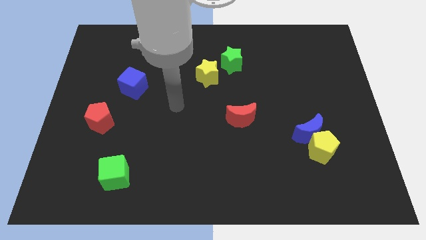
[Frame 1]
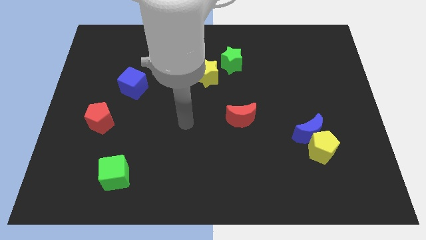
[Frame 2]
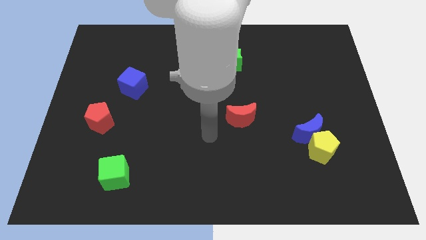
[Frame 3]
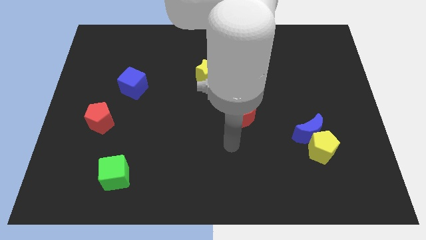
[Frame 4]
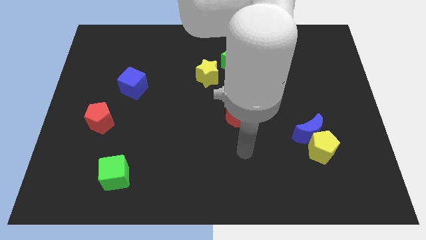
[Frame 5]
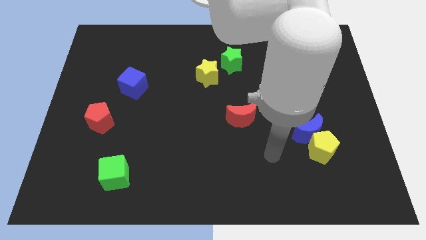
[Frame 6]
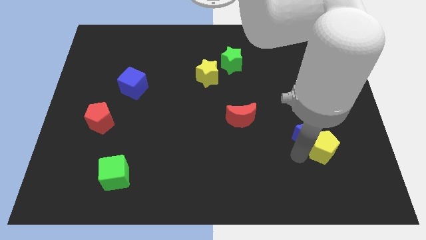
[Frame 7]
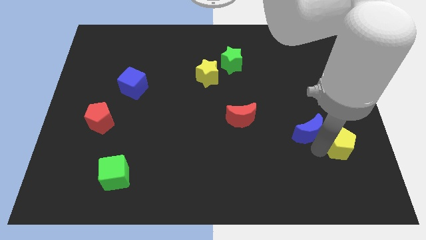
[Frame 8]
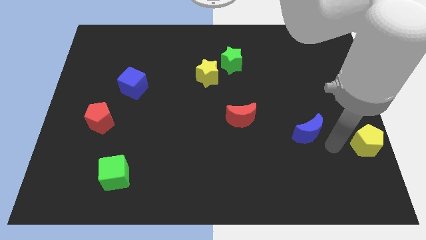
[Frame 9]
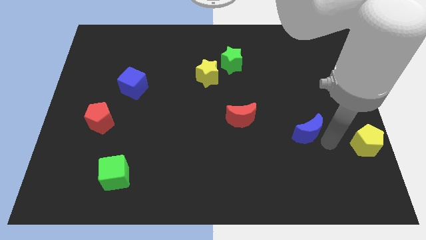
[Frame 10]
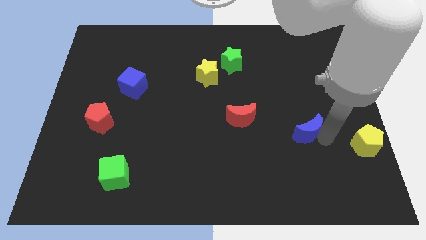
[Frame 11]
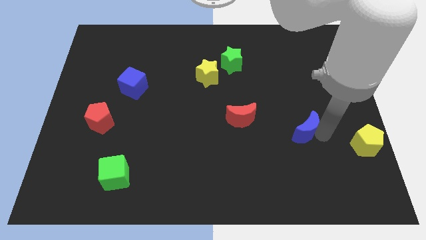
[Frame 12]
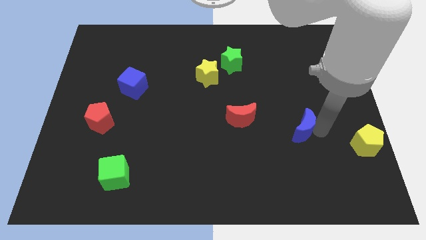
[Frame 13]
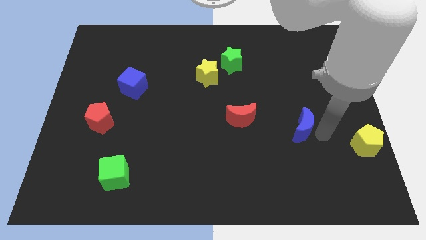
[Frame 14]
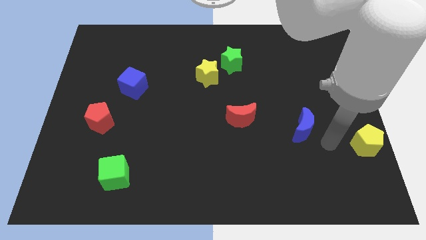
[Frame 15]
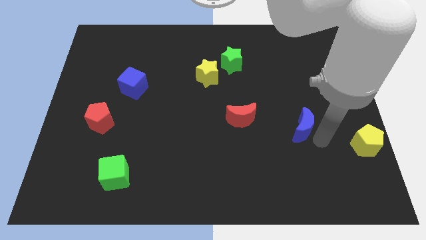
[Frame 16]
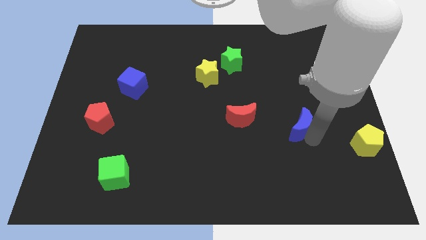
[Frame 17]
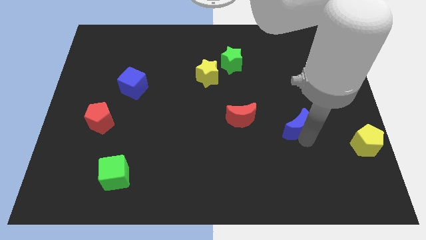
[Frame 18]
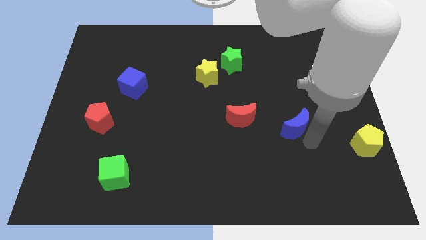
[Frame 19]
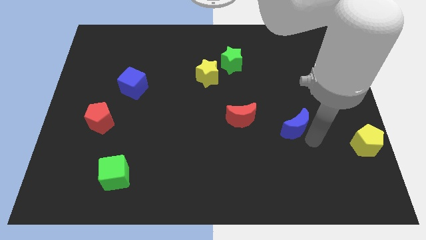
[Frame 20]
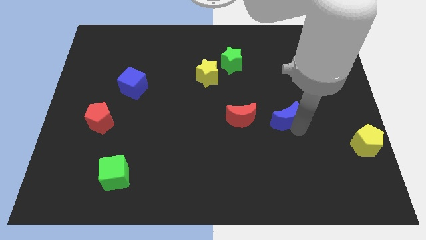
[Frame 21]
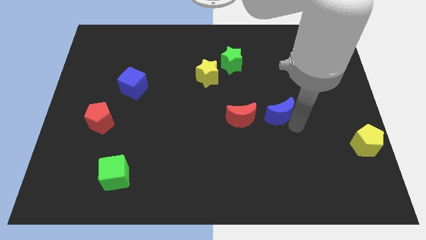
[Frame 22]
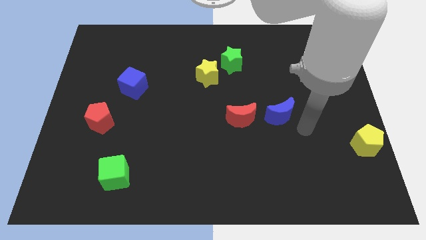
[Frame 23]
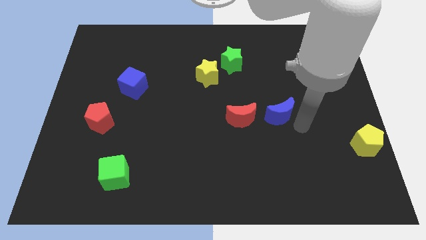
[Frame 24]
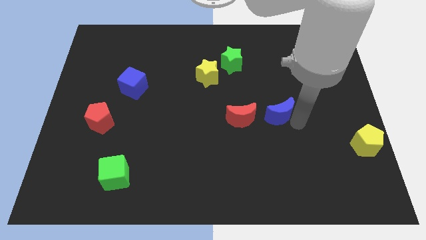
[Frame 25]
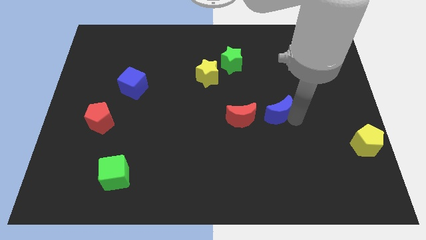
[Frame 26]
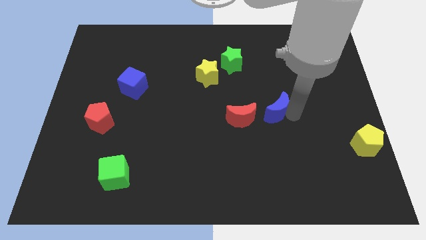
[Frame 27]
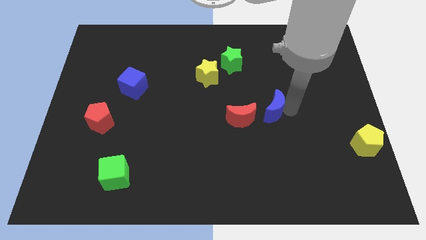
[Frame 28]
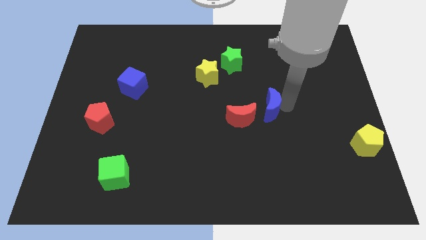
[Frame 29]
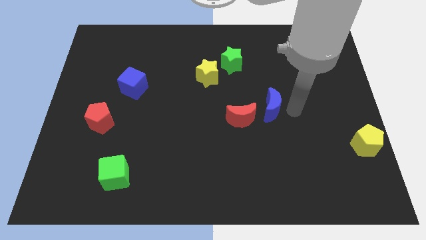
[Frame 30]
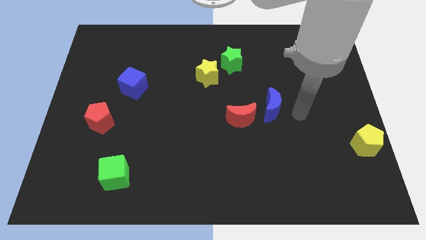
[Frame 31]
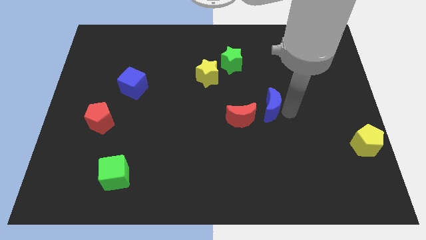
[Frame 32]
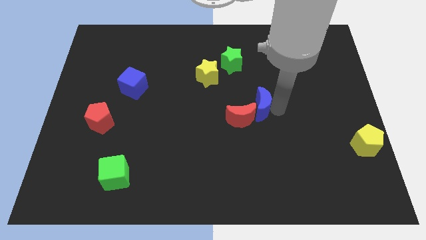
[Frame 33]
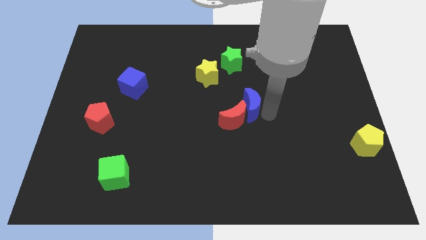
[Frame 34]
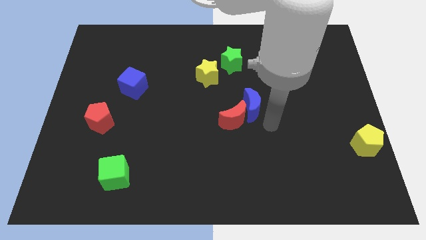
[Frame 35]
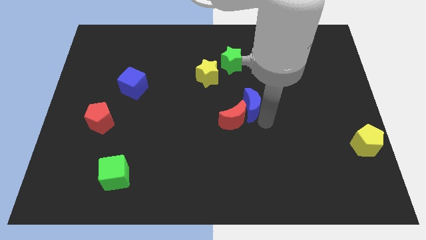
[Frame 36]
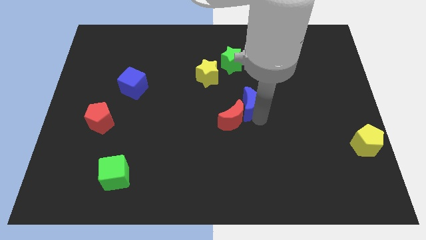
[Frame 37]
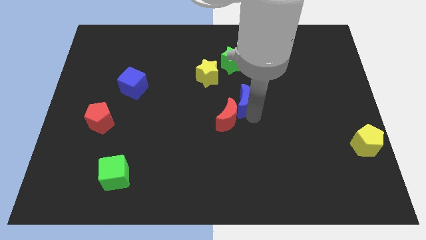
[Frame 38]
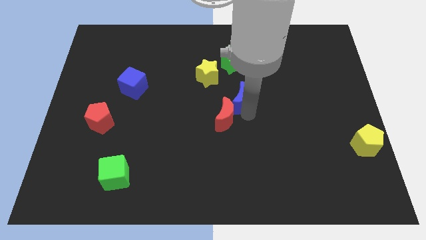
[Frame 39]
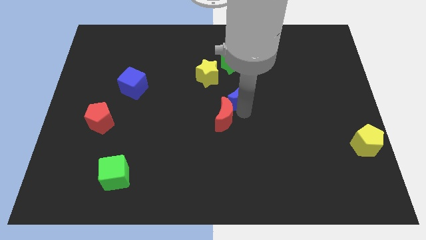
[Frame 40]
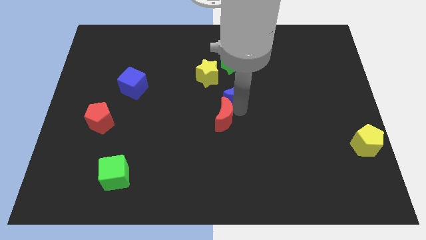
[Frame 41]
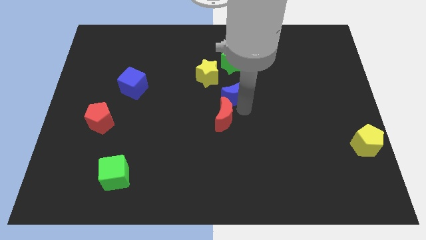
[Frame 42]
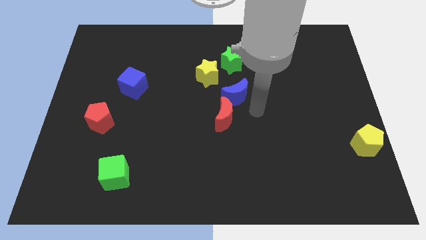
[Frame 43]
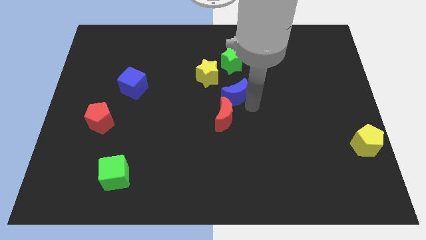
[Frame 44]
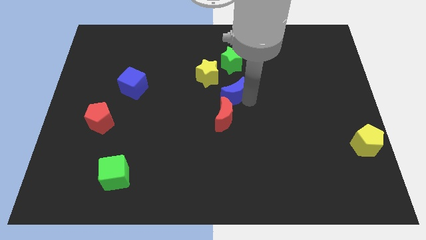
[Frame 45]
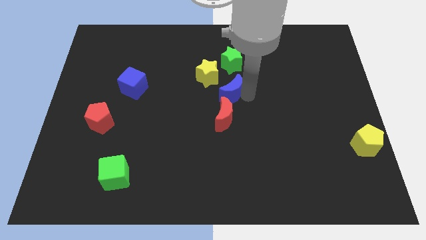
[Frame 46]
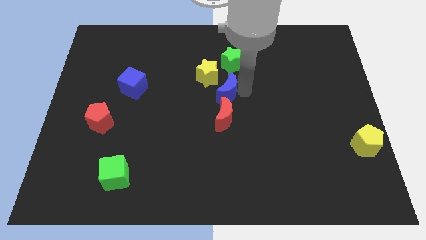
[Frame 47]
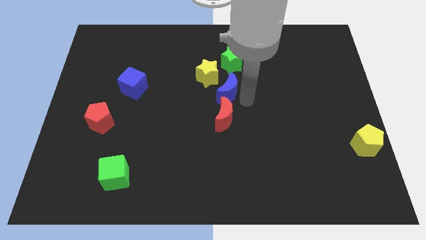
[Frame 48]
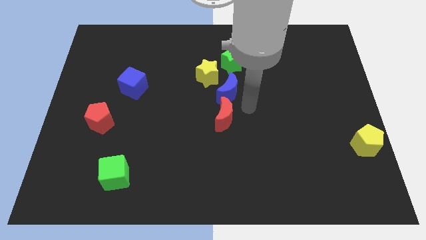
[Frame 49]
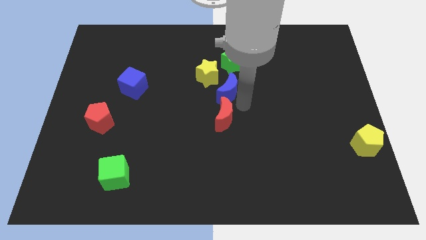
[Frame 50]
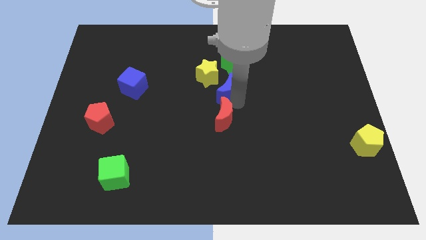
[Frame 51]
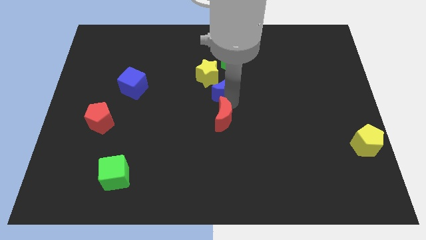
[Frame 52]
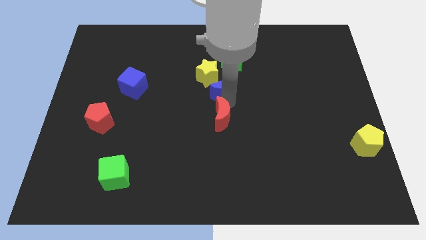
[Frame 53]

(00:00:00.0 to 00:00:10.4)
move the blue moon close to the yellow star

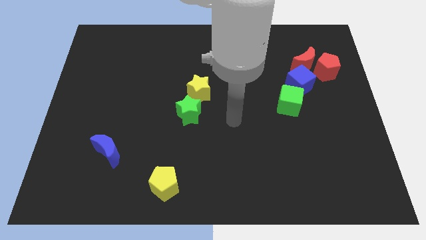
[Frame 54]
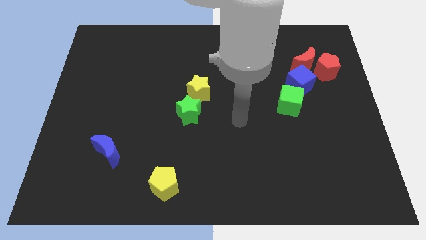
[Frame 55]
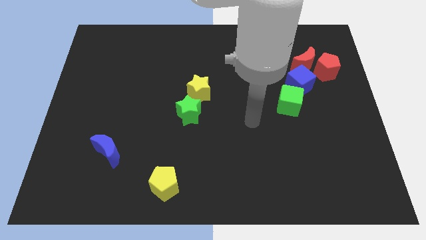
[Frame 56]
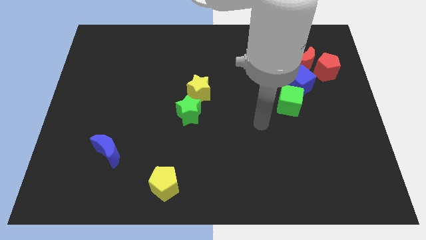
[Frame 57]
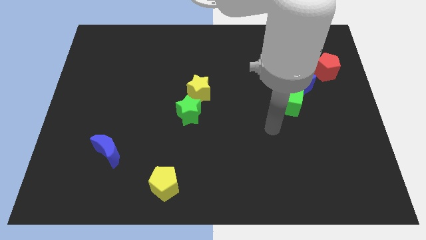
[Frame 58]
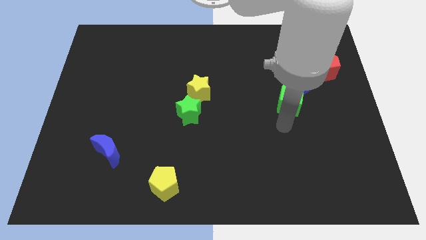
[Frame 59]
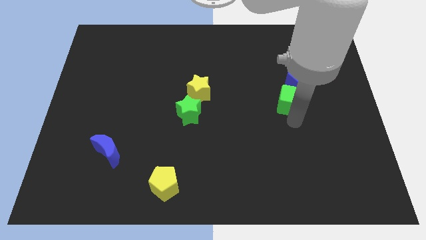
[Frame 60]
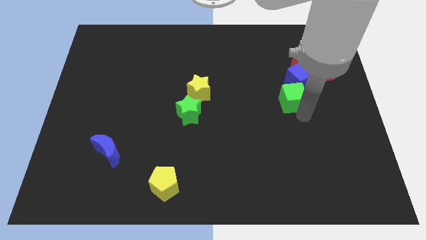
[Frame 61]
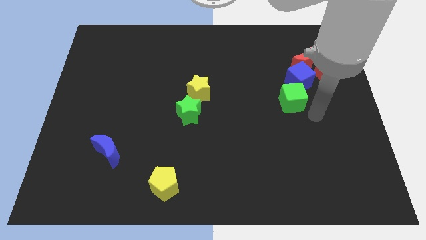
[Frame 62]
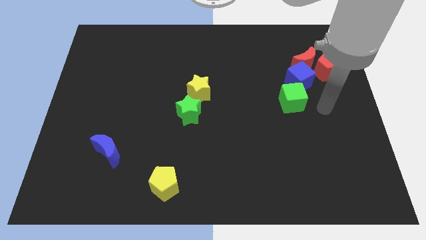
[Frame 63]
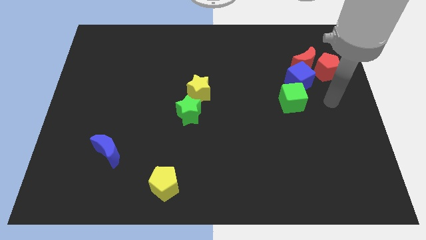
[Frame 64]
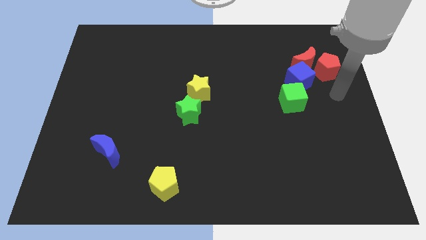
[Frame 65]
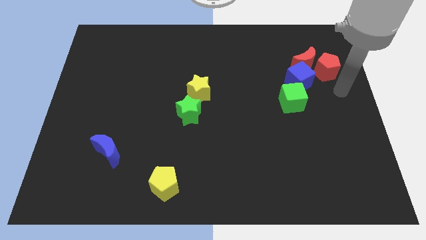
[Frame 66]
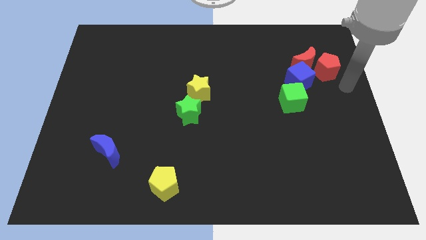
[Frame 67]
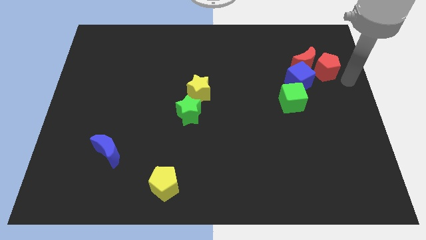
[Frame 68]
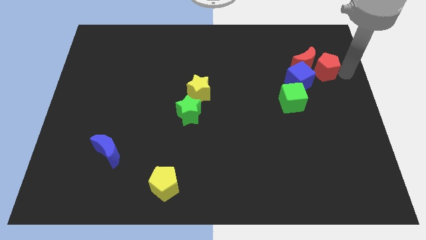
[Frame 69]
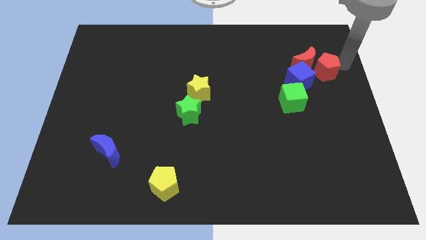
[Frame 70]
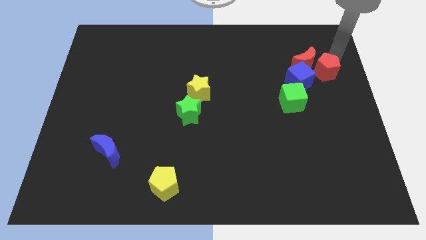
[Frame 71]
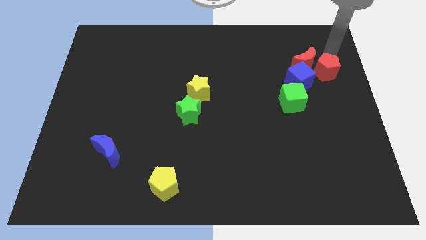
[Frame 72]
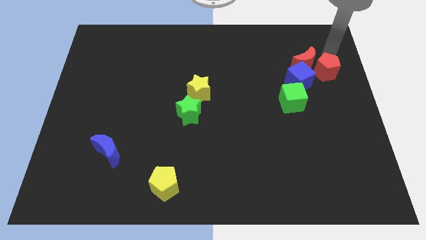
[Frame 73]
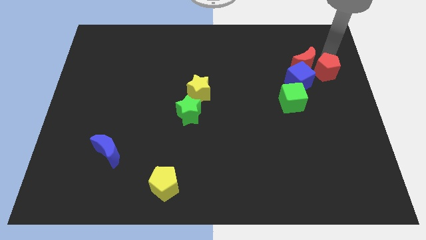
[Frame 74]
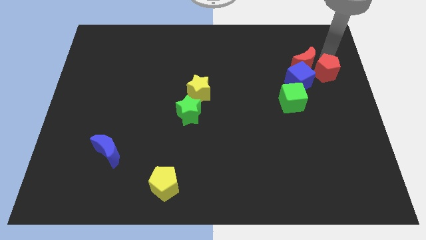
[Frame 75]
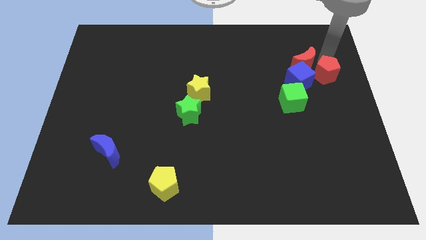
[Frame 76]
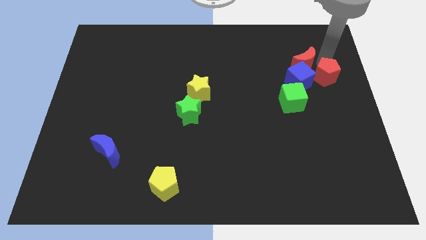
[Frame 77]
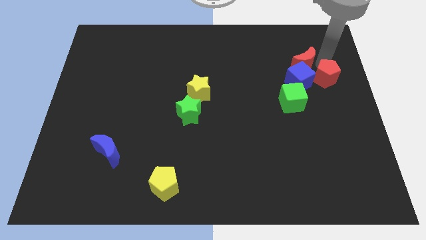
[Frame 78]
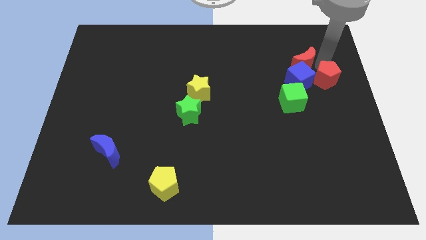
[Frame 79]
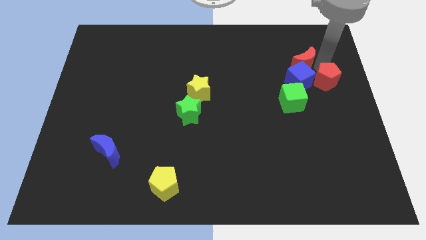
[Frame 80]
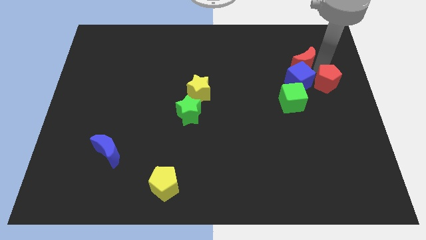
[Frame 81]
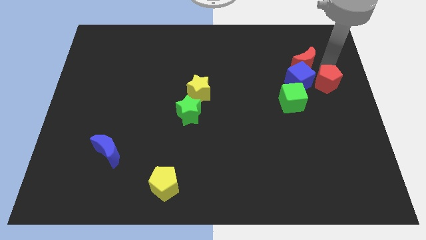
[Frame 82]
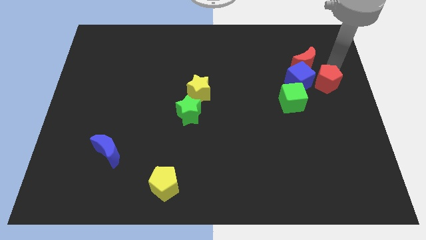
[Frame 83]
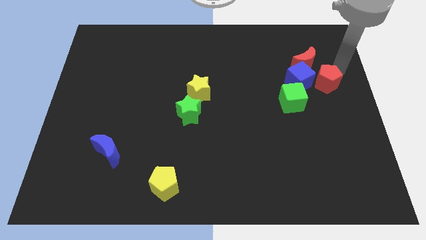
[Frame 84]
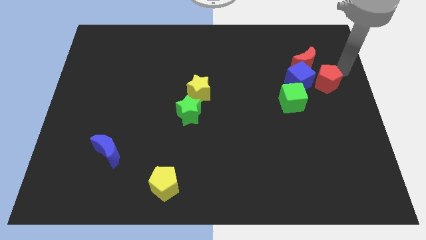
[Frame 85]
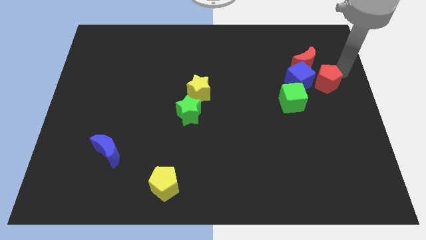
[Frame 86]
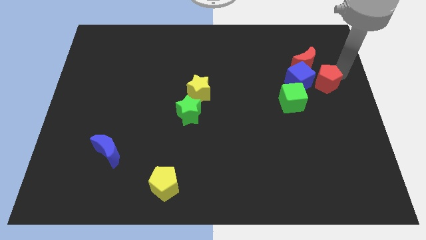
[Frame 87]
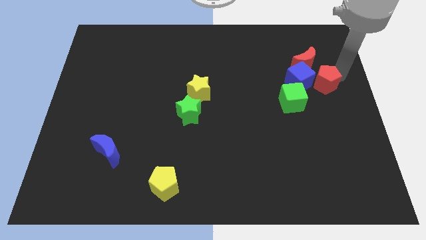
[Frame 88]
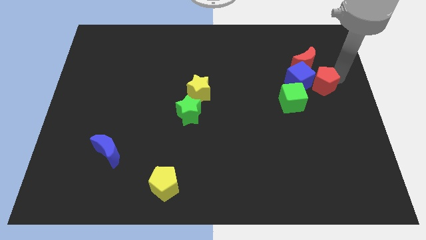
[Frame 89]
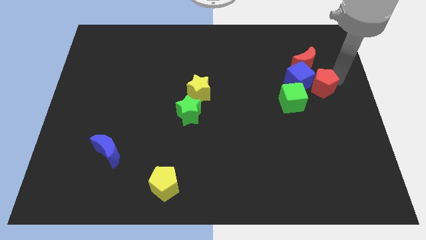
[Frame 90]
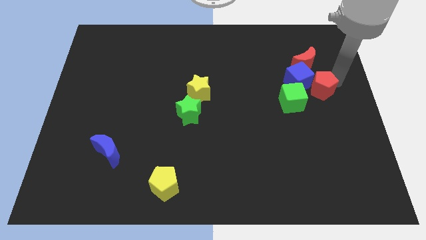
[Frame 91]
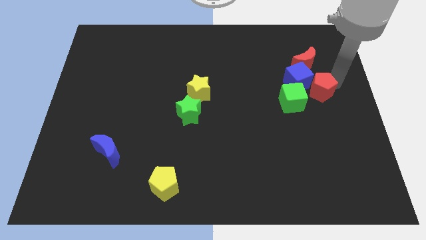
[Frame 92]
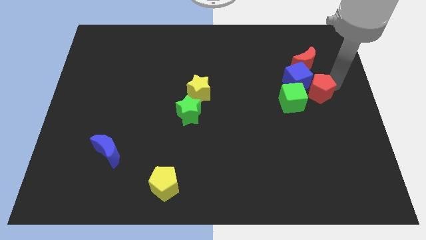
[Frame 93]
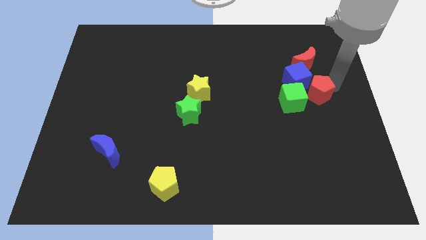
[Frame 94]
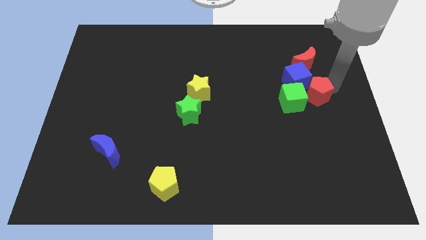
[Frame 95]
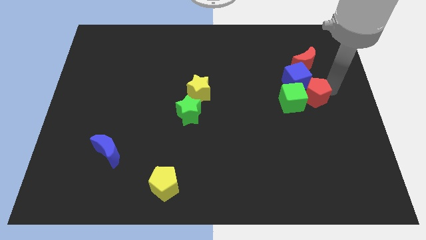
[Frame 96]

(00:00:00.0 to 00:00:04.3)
move the red pentagon towards the green cube
